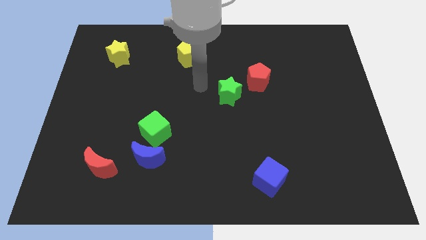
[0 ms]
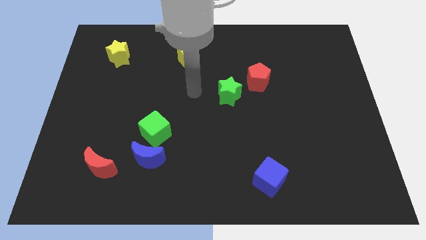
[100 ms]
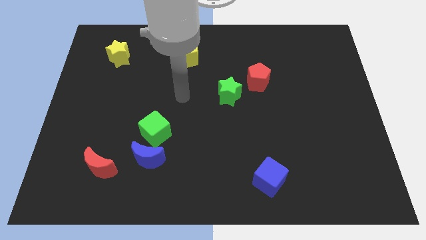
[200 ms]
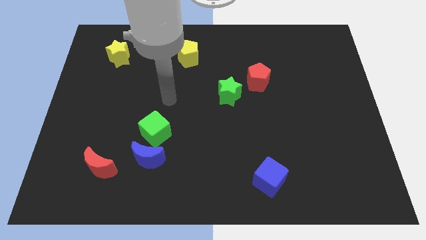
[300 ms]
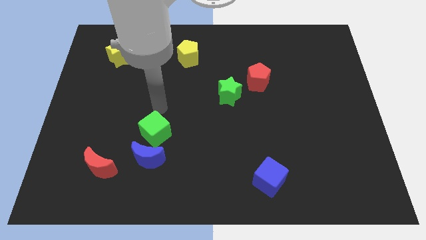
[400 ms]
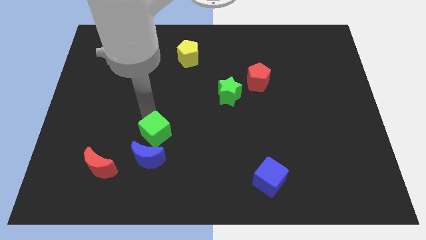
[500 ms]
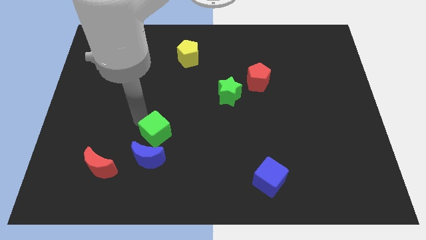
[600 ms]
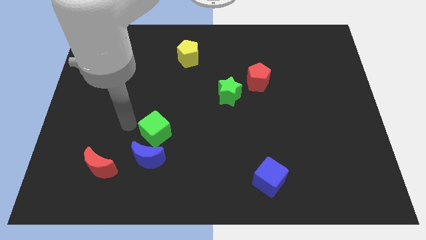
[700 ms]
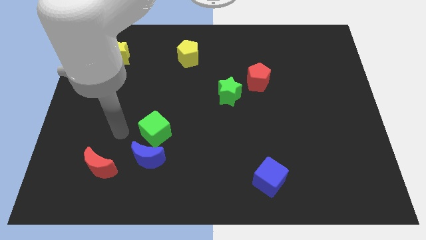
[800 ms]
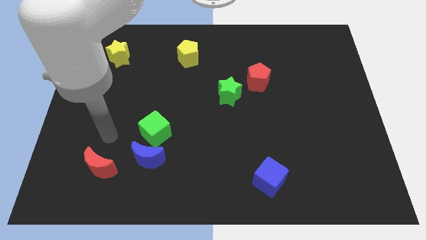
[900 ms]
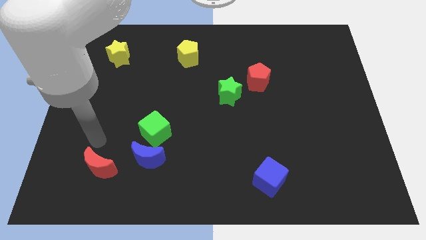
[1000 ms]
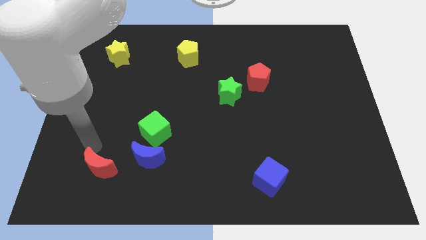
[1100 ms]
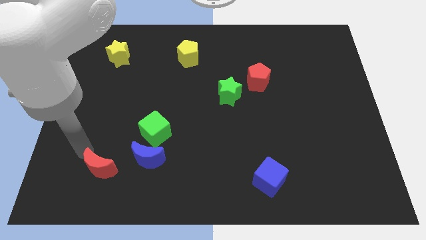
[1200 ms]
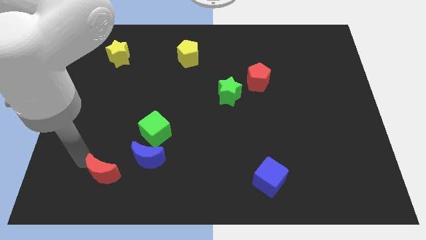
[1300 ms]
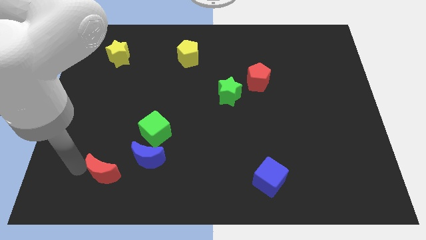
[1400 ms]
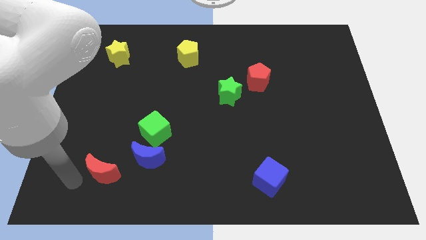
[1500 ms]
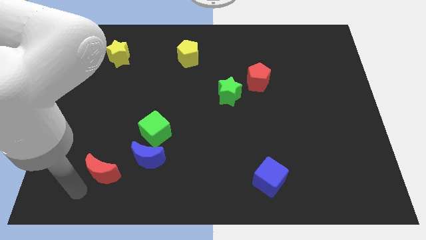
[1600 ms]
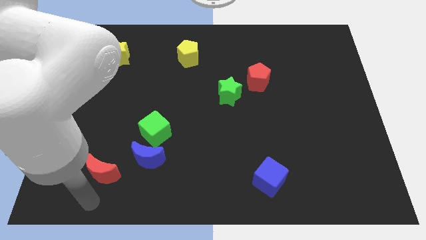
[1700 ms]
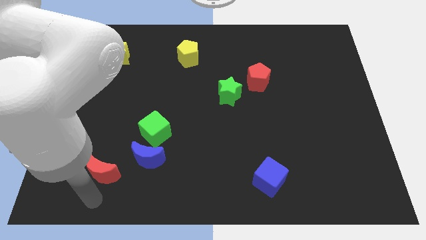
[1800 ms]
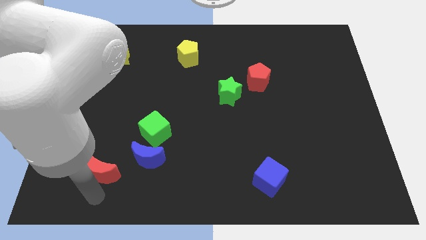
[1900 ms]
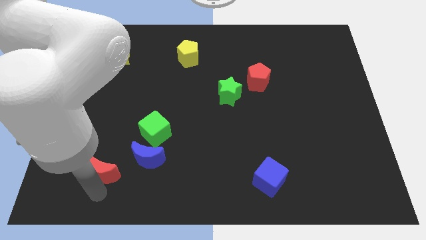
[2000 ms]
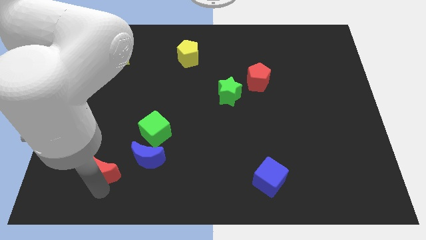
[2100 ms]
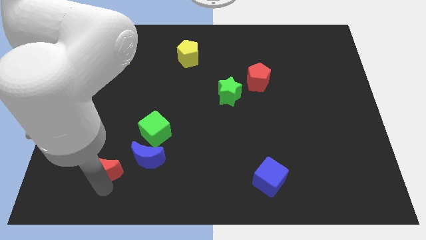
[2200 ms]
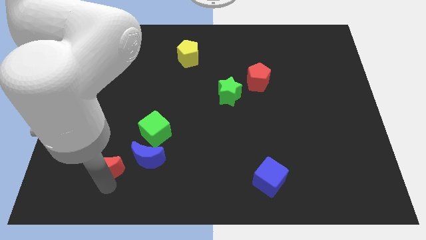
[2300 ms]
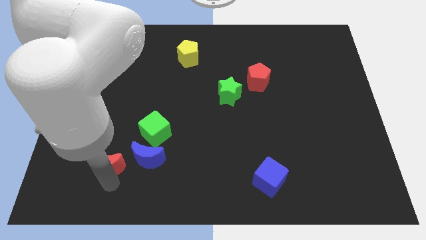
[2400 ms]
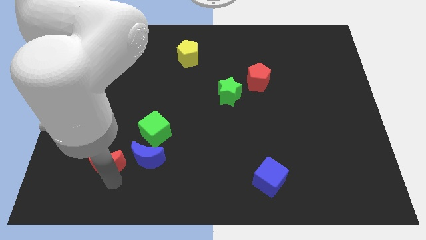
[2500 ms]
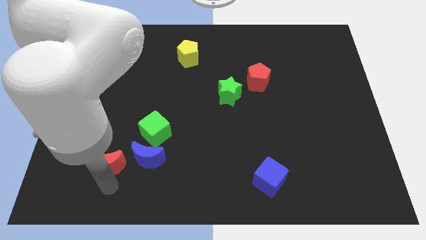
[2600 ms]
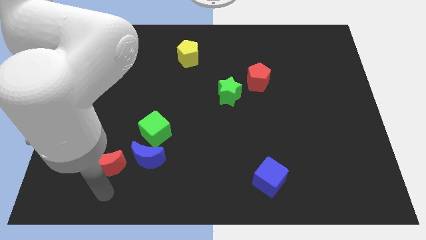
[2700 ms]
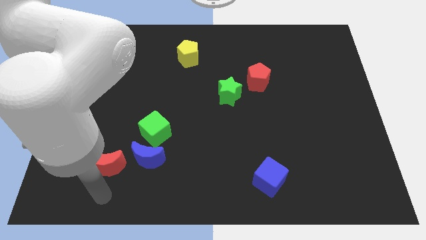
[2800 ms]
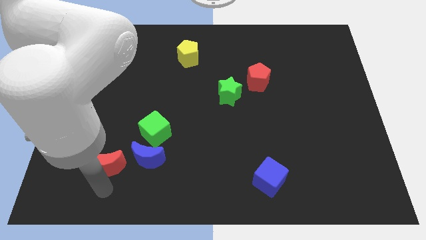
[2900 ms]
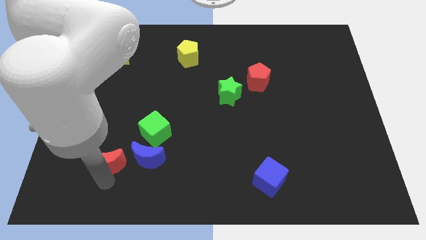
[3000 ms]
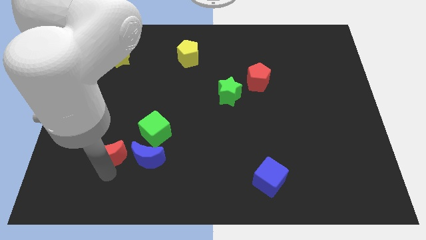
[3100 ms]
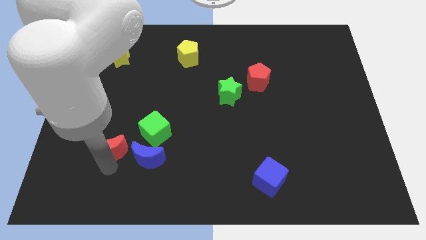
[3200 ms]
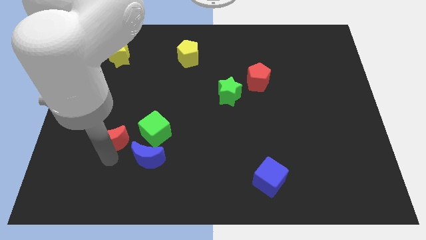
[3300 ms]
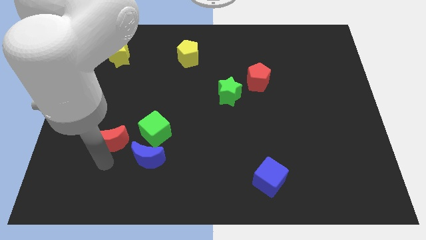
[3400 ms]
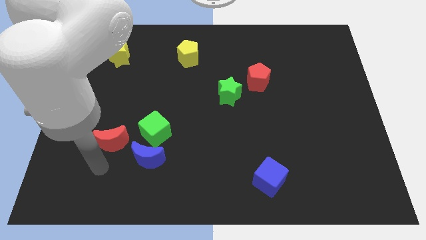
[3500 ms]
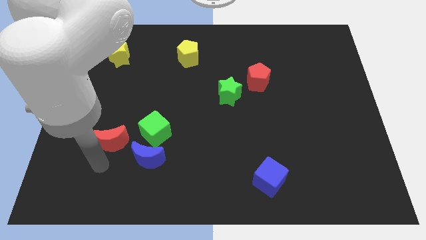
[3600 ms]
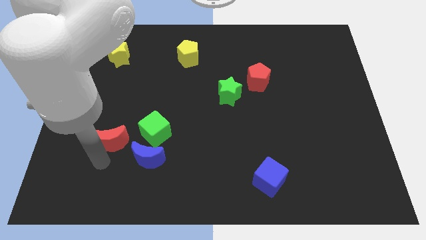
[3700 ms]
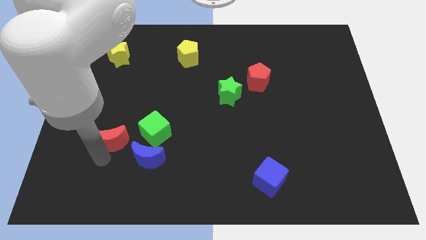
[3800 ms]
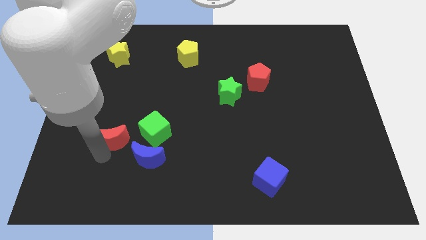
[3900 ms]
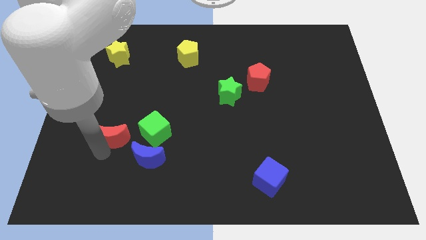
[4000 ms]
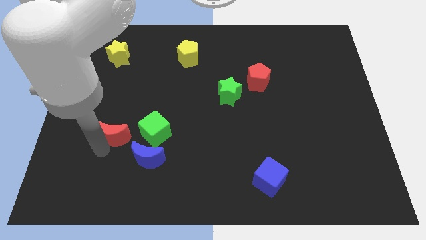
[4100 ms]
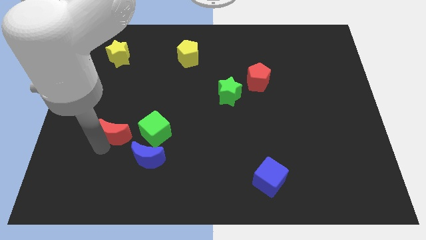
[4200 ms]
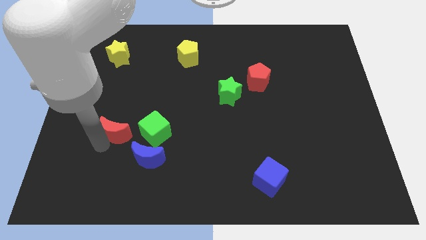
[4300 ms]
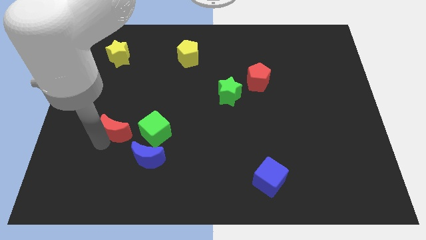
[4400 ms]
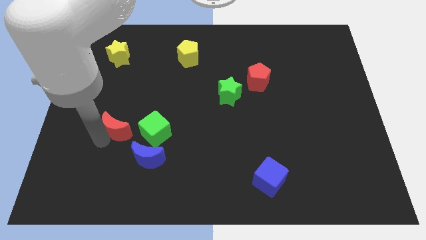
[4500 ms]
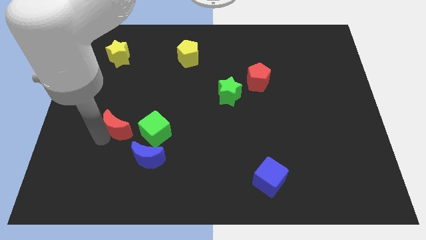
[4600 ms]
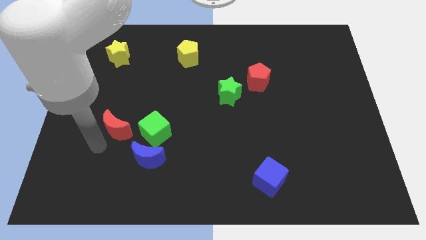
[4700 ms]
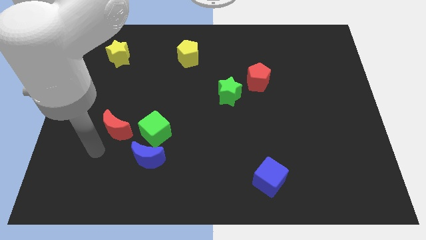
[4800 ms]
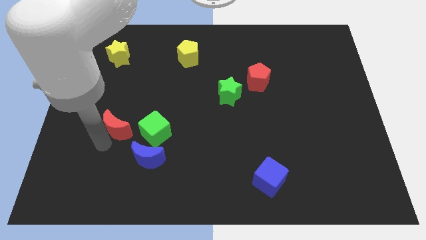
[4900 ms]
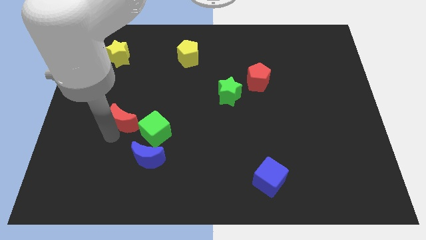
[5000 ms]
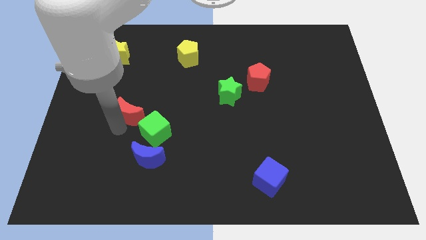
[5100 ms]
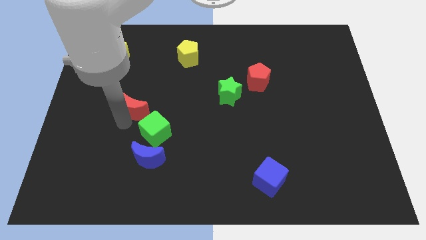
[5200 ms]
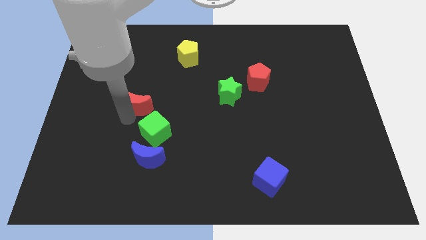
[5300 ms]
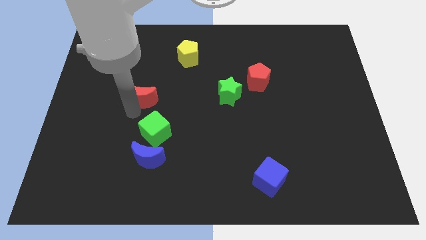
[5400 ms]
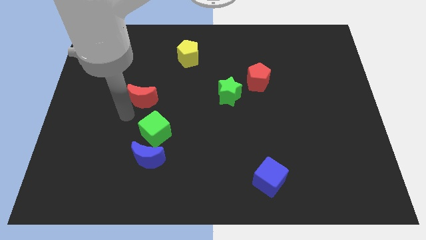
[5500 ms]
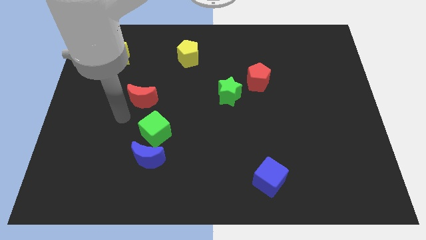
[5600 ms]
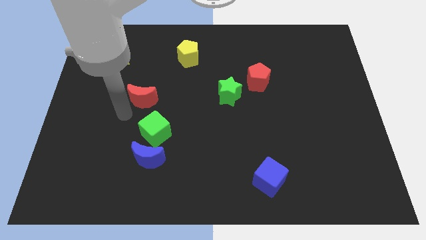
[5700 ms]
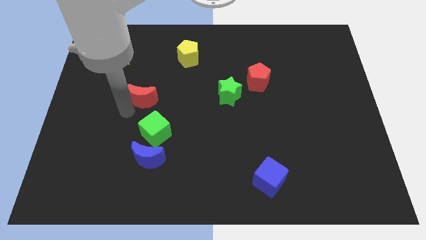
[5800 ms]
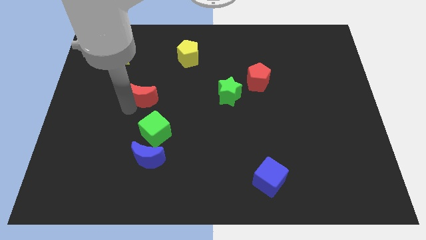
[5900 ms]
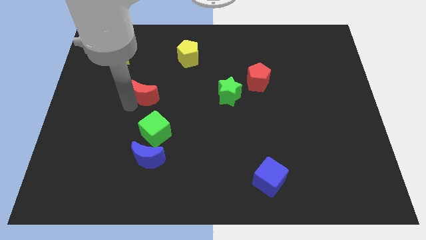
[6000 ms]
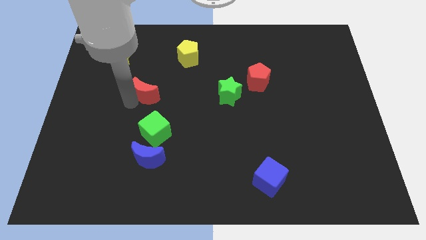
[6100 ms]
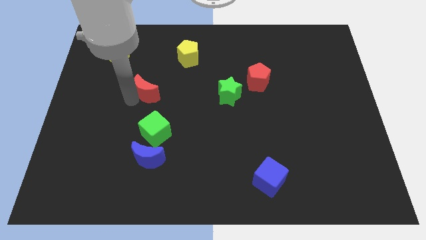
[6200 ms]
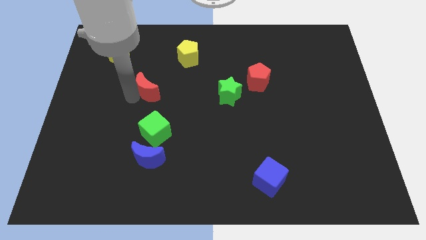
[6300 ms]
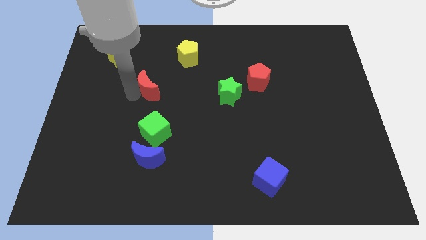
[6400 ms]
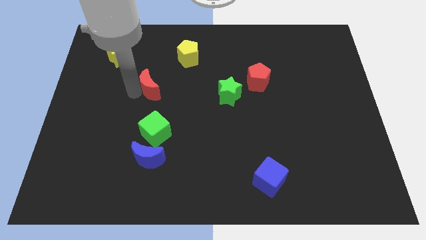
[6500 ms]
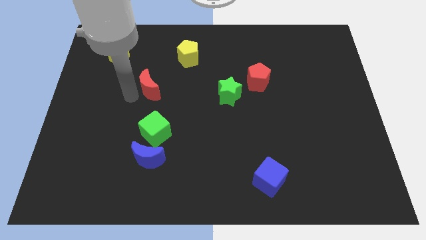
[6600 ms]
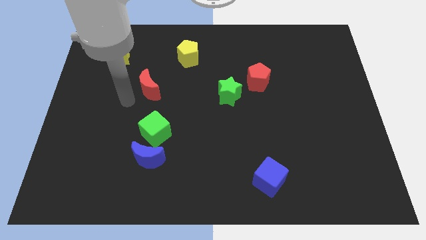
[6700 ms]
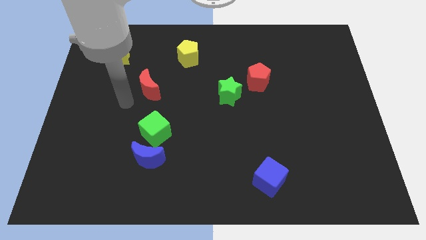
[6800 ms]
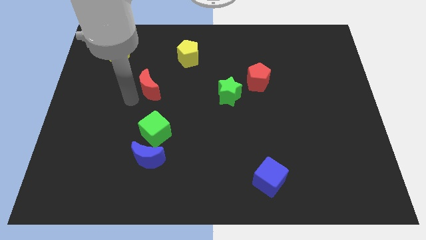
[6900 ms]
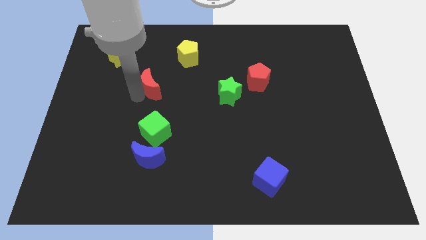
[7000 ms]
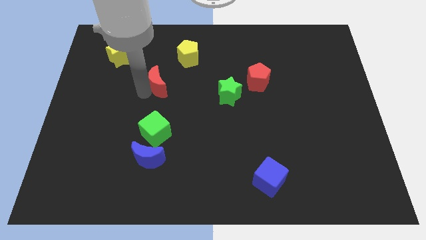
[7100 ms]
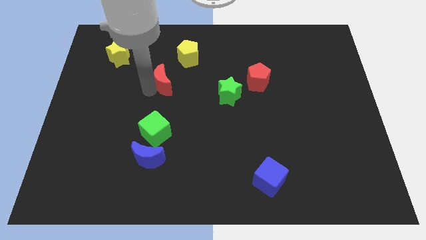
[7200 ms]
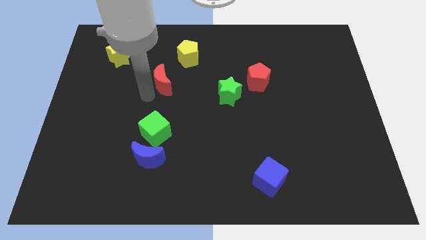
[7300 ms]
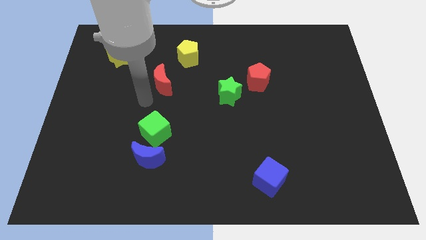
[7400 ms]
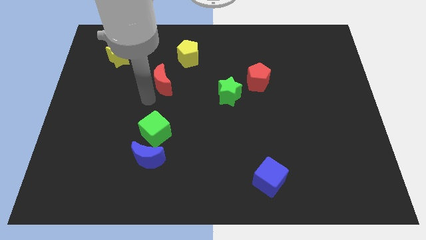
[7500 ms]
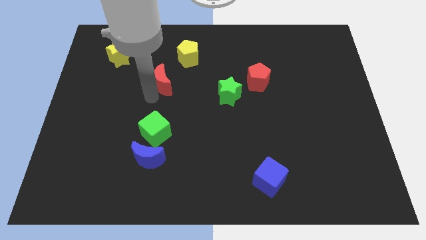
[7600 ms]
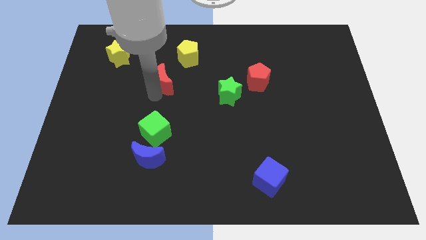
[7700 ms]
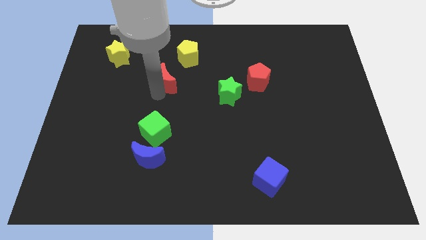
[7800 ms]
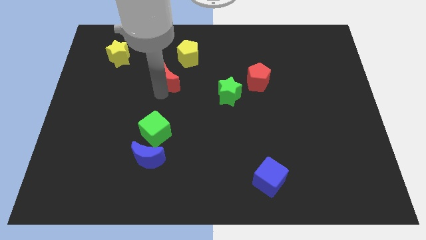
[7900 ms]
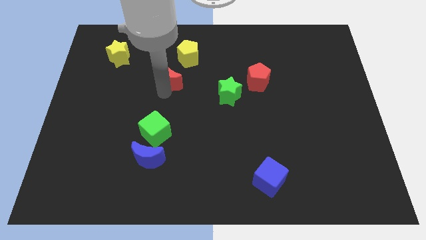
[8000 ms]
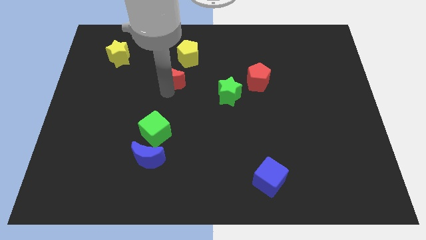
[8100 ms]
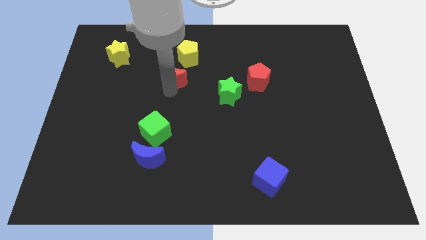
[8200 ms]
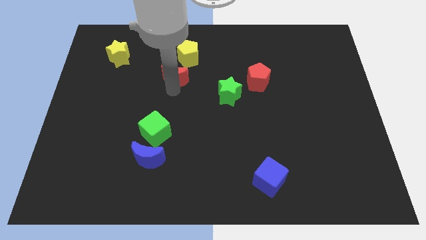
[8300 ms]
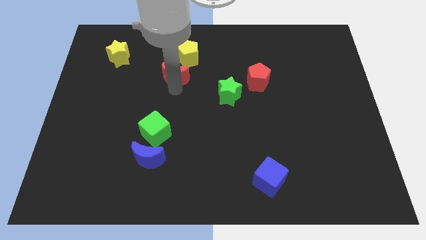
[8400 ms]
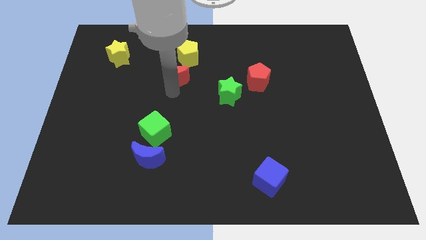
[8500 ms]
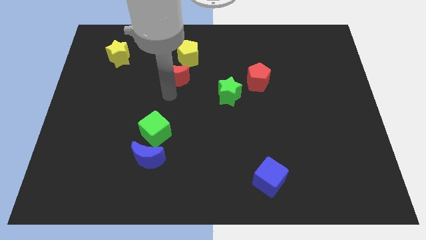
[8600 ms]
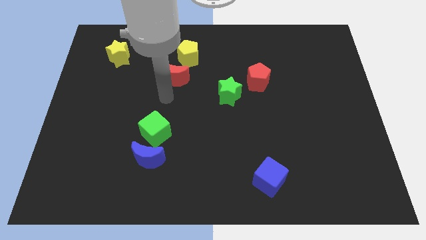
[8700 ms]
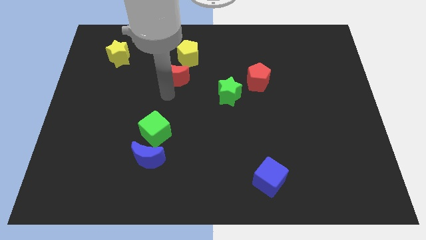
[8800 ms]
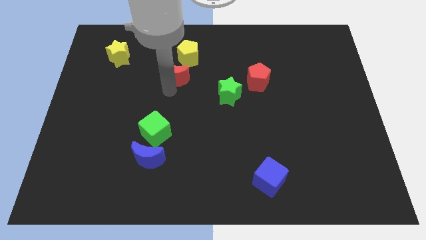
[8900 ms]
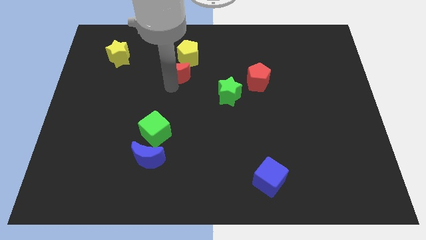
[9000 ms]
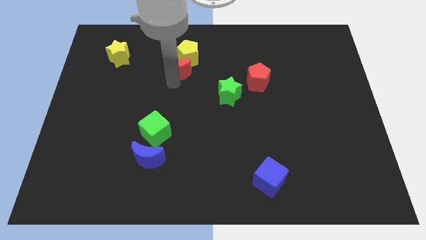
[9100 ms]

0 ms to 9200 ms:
push the red moon close to the yellow pentagon
